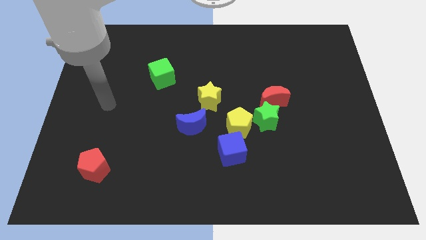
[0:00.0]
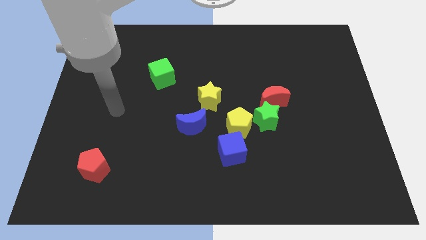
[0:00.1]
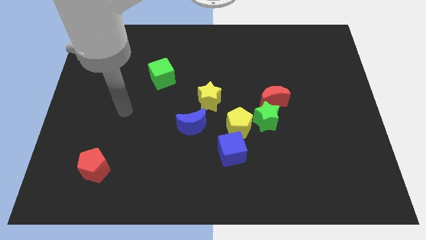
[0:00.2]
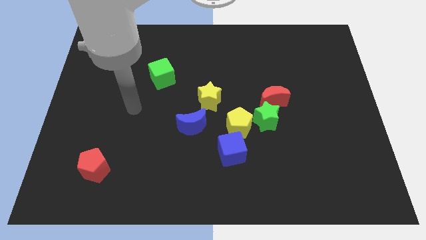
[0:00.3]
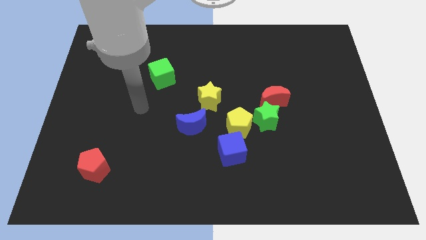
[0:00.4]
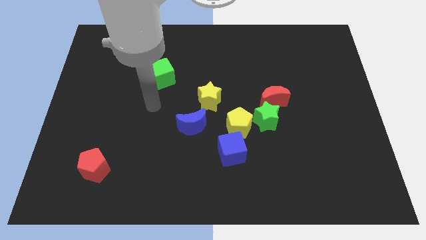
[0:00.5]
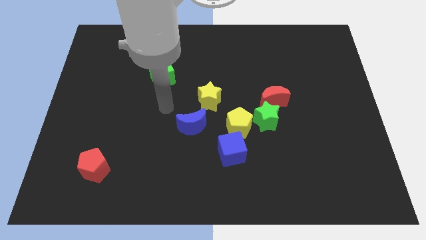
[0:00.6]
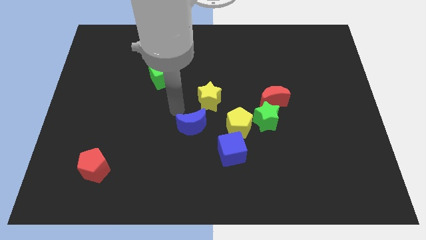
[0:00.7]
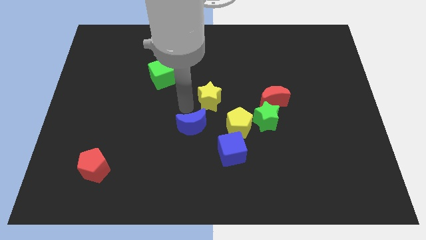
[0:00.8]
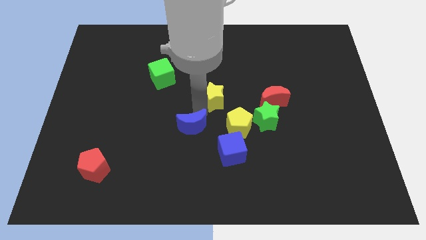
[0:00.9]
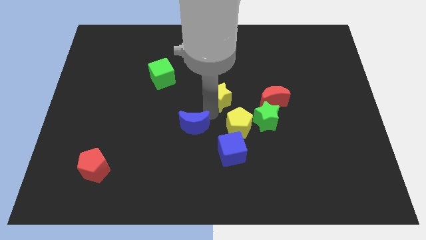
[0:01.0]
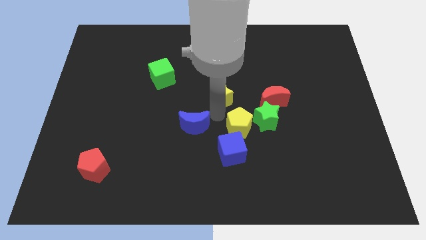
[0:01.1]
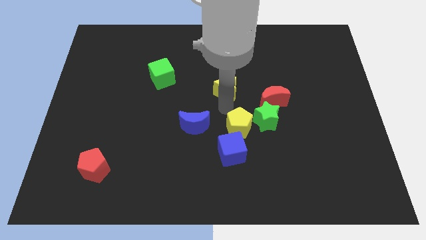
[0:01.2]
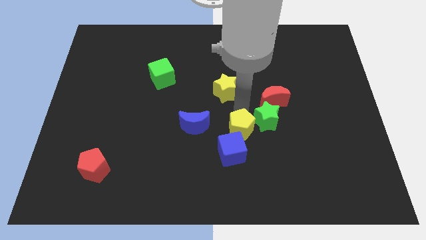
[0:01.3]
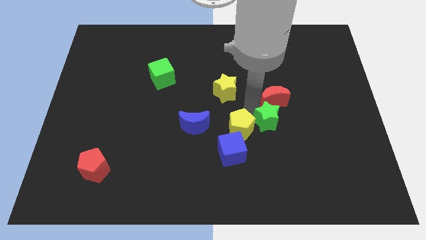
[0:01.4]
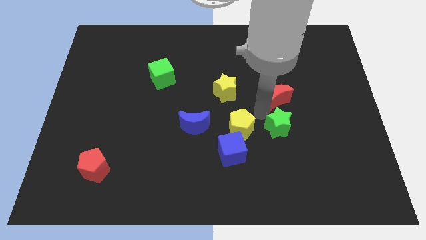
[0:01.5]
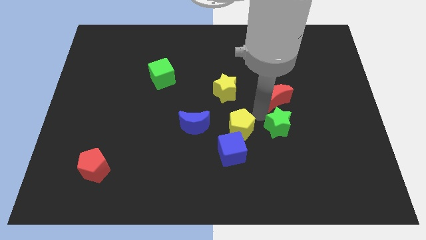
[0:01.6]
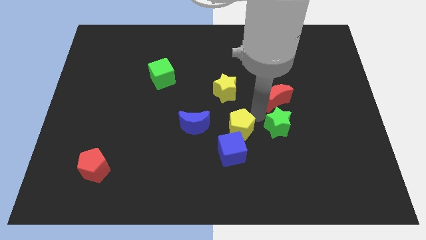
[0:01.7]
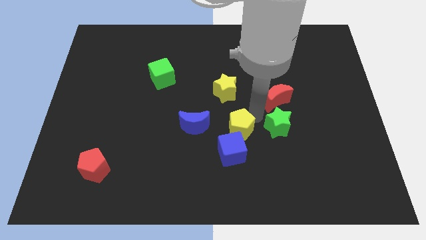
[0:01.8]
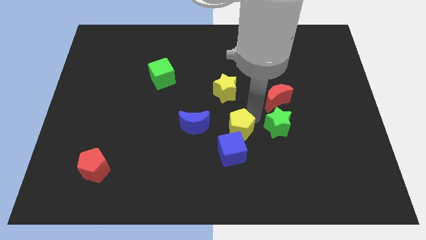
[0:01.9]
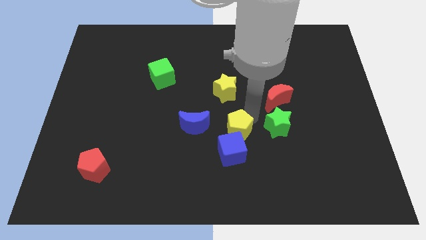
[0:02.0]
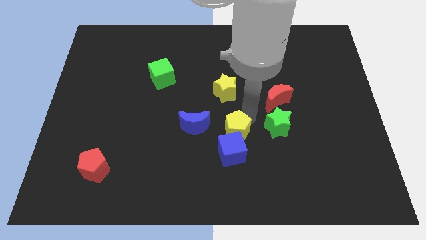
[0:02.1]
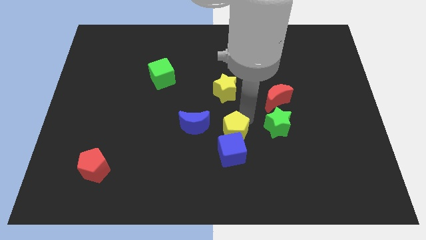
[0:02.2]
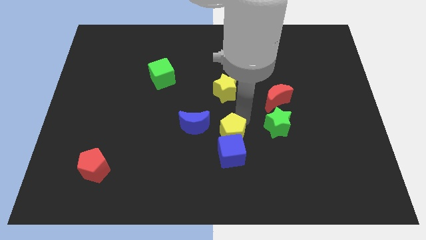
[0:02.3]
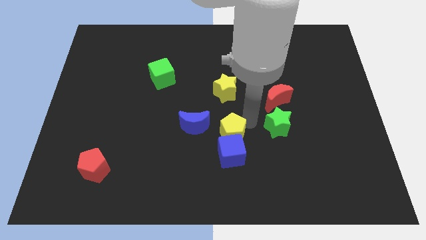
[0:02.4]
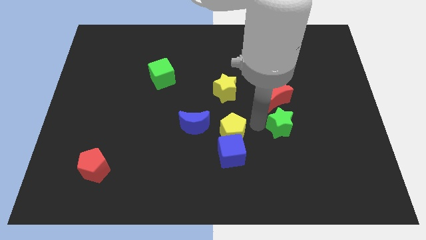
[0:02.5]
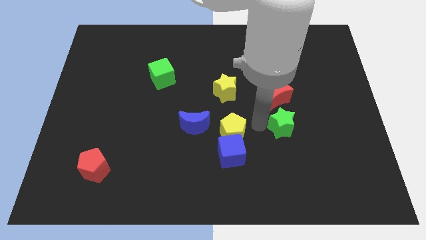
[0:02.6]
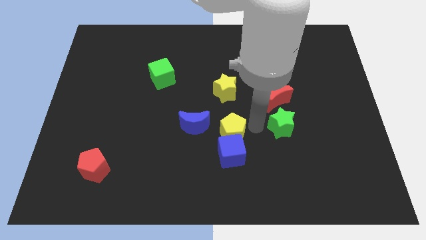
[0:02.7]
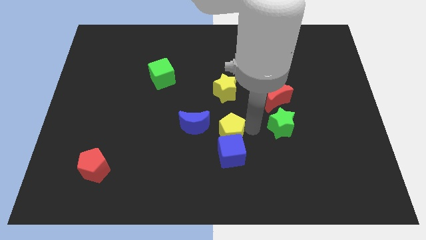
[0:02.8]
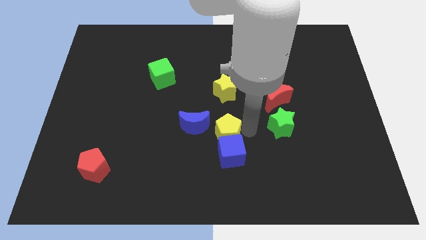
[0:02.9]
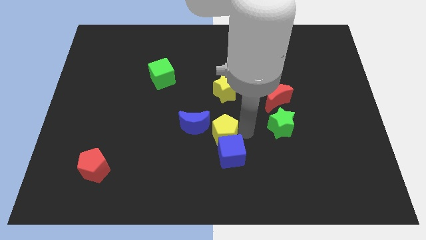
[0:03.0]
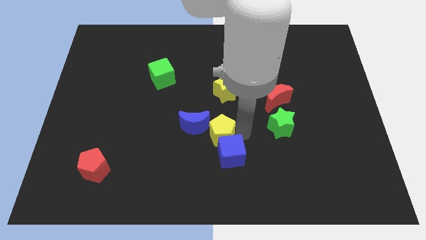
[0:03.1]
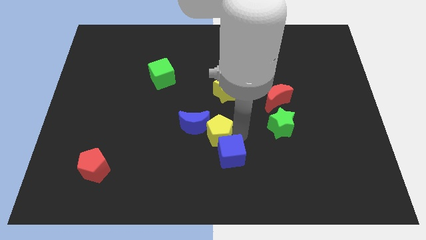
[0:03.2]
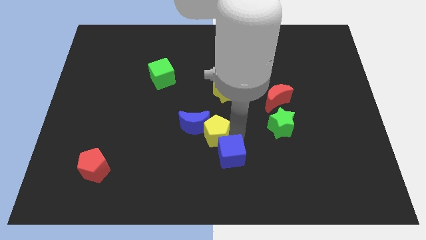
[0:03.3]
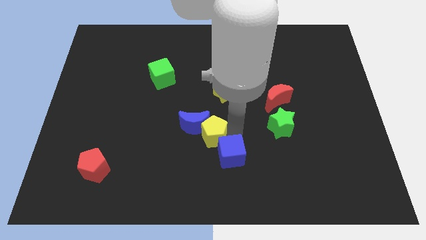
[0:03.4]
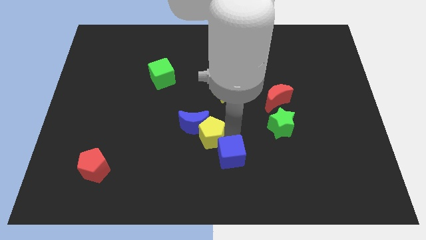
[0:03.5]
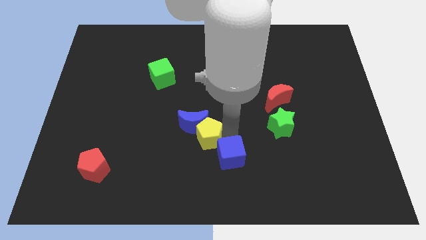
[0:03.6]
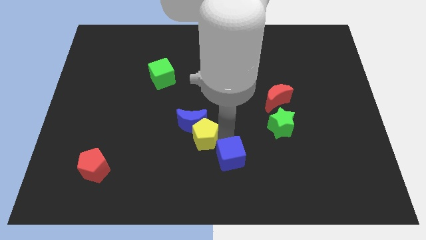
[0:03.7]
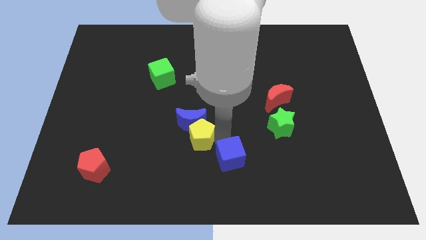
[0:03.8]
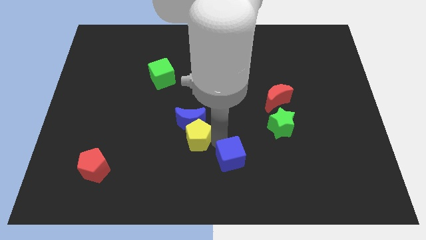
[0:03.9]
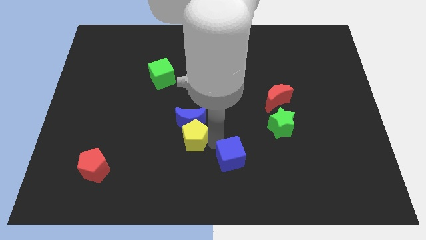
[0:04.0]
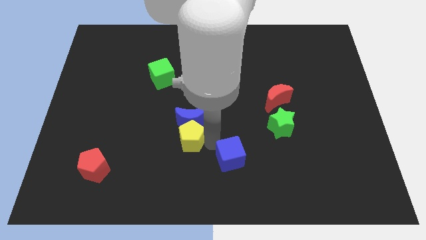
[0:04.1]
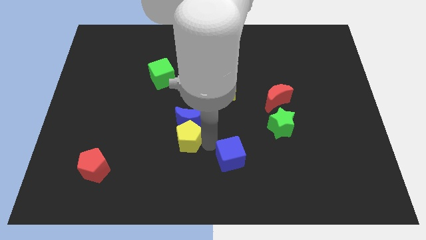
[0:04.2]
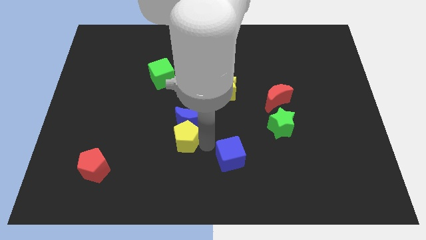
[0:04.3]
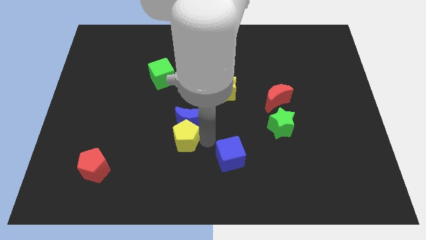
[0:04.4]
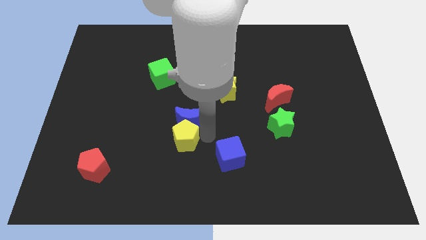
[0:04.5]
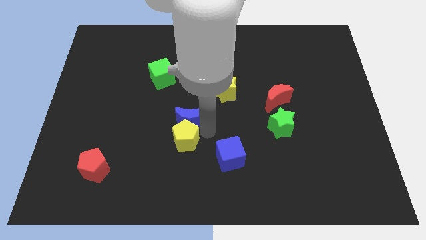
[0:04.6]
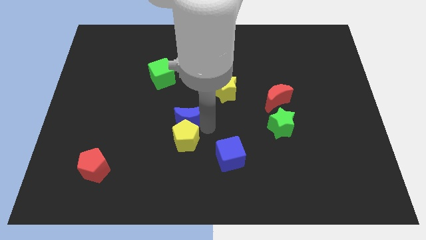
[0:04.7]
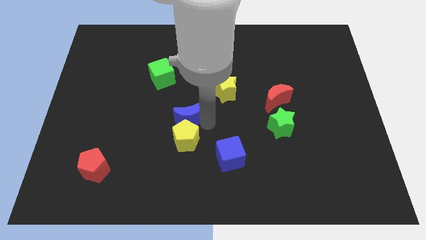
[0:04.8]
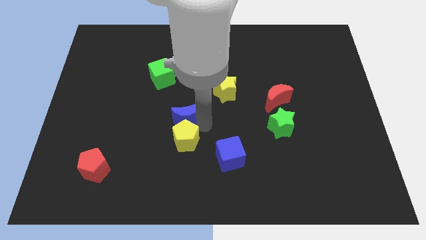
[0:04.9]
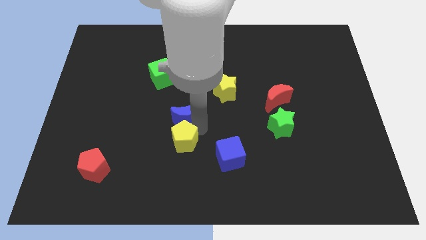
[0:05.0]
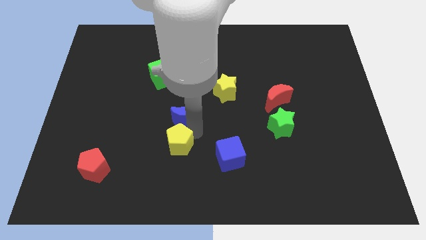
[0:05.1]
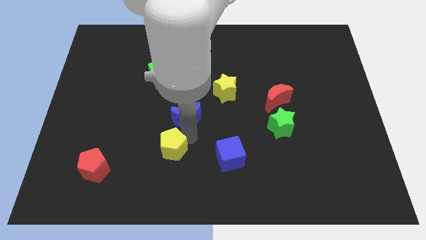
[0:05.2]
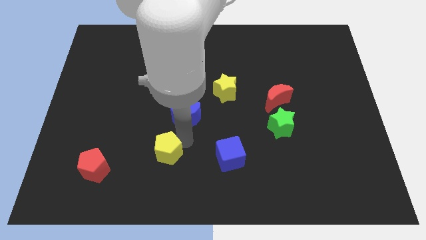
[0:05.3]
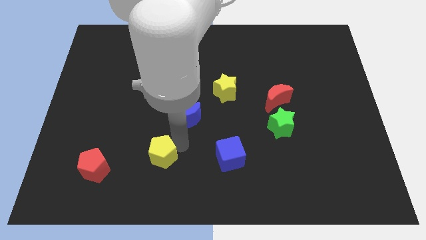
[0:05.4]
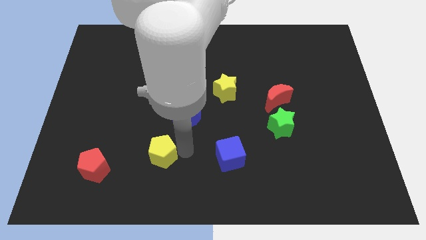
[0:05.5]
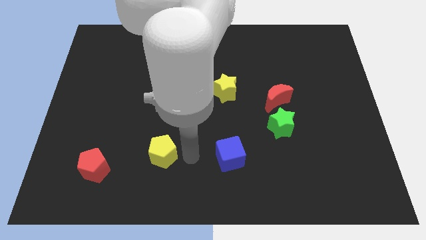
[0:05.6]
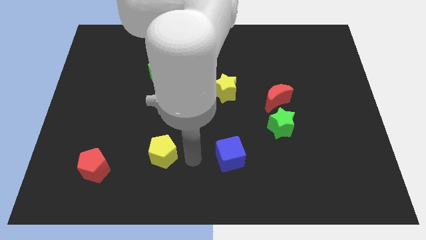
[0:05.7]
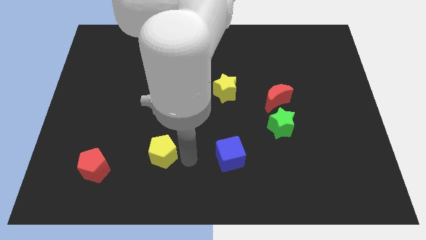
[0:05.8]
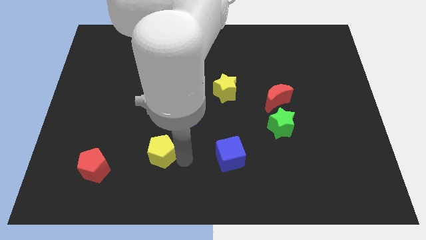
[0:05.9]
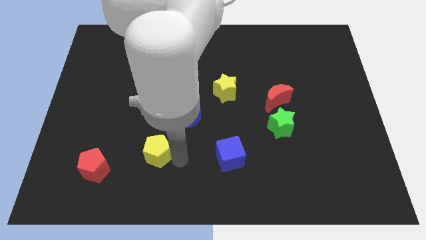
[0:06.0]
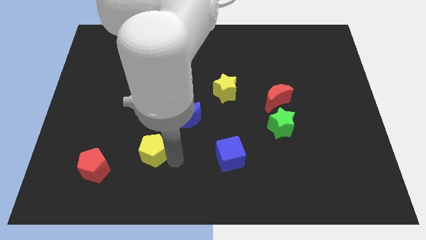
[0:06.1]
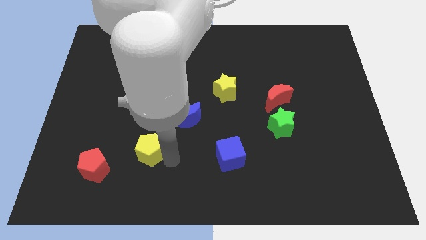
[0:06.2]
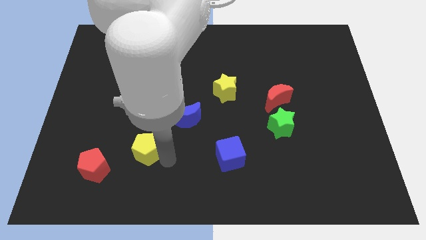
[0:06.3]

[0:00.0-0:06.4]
slide the yellow pentagon to the top right side of the red pentagon

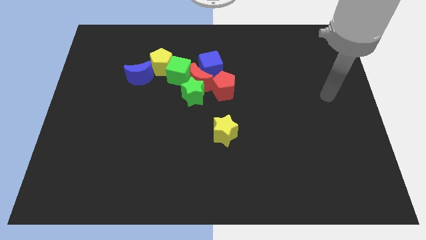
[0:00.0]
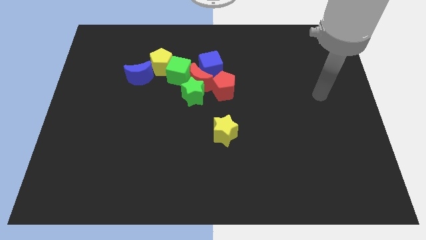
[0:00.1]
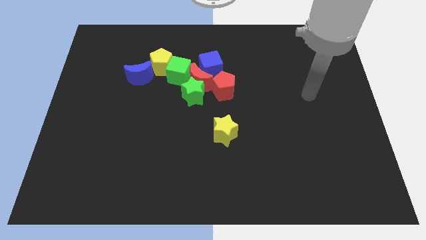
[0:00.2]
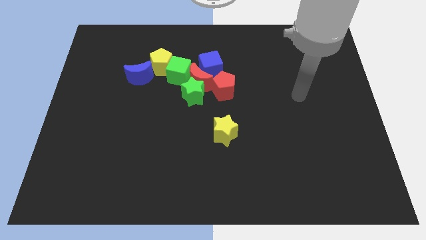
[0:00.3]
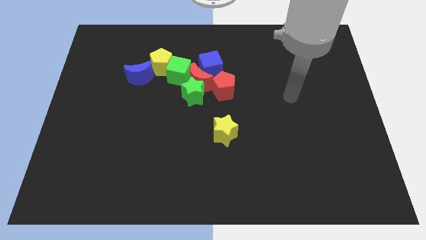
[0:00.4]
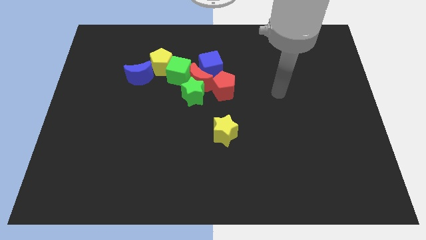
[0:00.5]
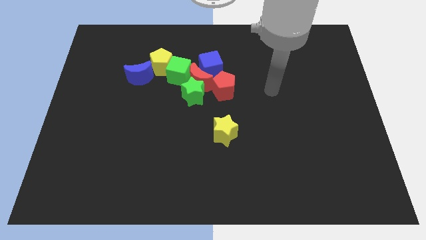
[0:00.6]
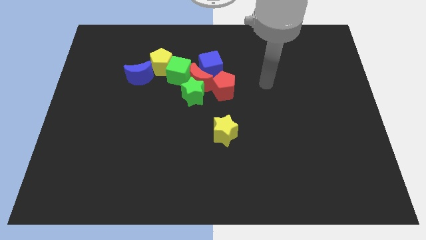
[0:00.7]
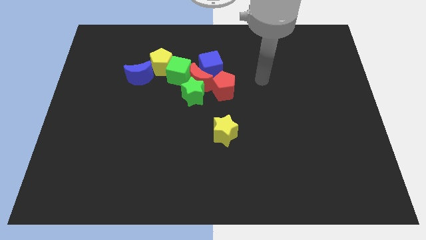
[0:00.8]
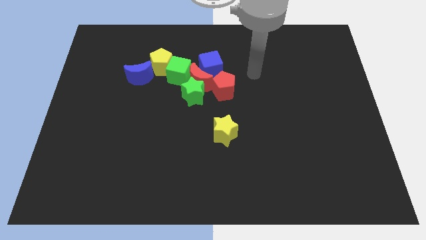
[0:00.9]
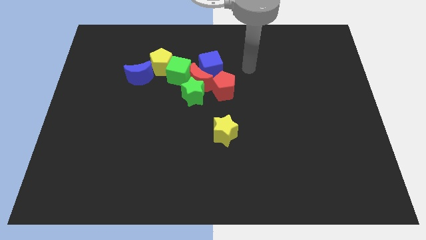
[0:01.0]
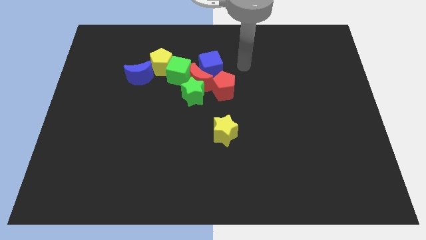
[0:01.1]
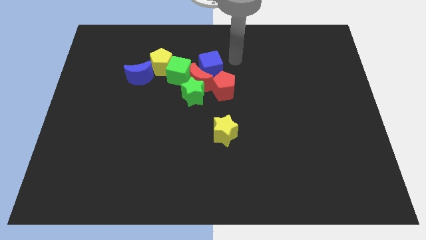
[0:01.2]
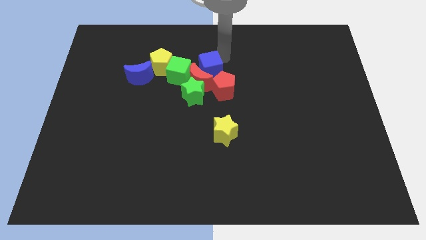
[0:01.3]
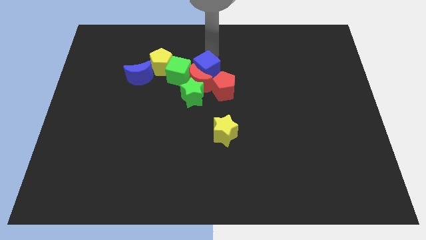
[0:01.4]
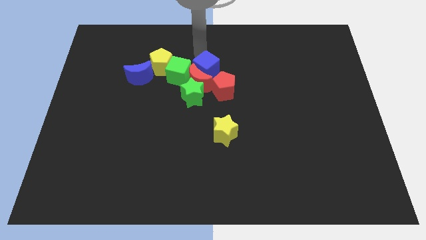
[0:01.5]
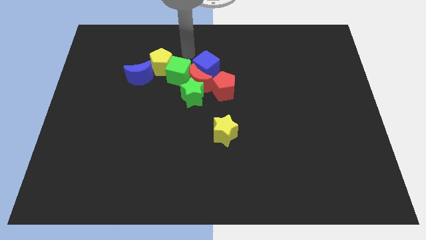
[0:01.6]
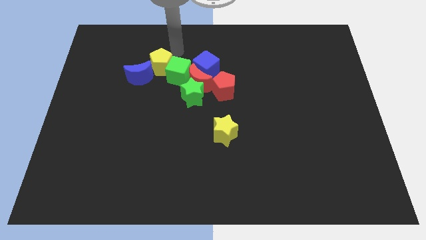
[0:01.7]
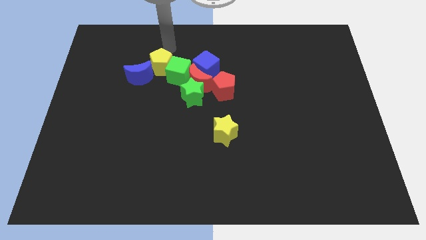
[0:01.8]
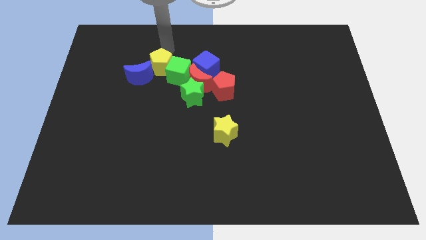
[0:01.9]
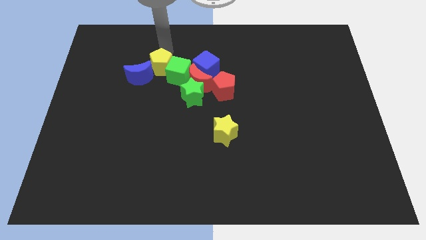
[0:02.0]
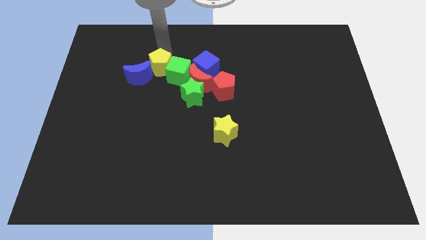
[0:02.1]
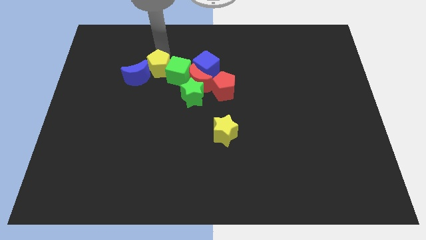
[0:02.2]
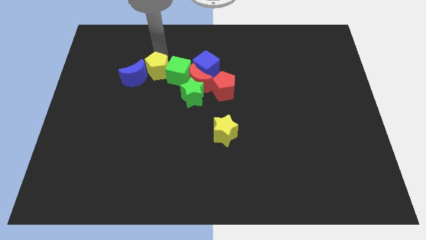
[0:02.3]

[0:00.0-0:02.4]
move the yellow pentagon just left of the red moon
